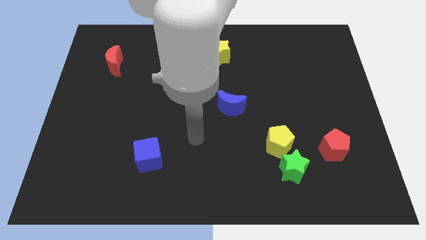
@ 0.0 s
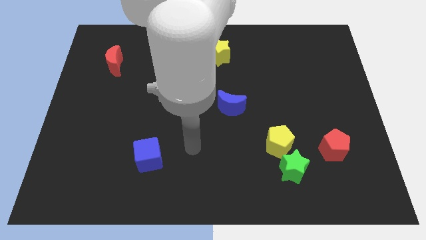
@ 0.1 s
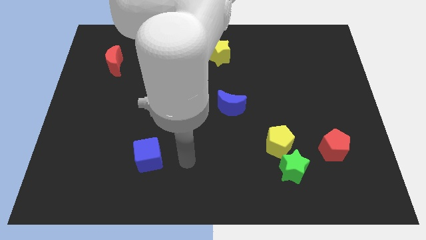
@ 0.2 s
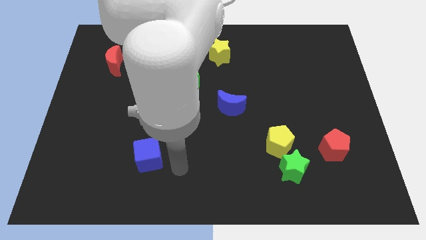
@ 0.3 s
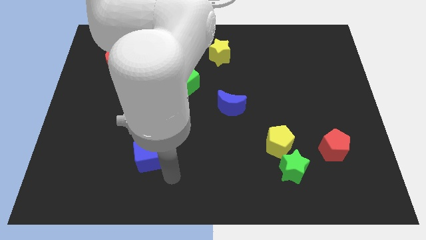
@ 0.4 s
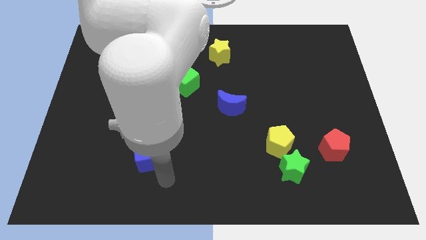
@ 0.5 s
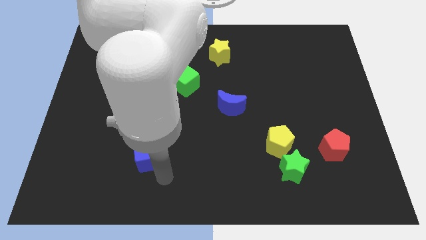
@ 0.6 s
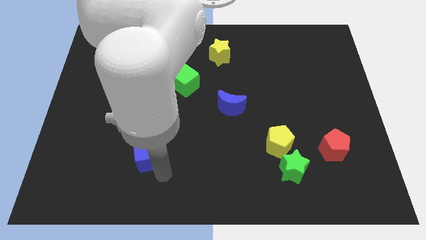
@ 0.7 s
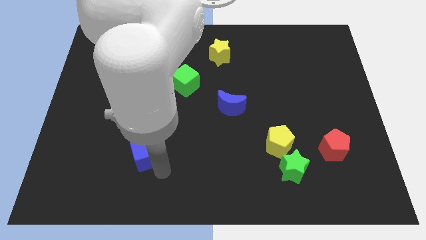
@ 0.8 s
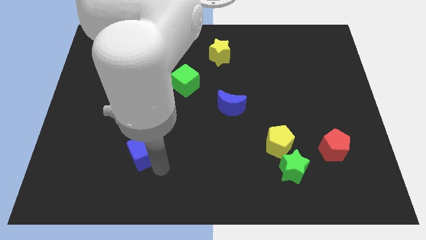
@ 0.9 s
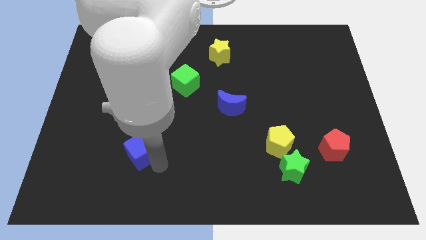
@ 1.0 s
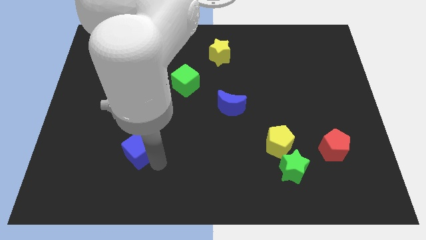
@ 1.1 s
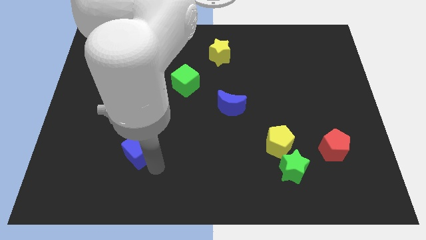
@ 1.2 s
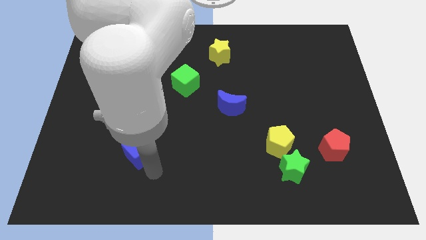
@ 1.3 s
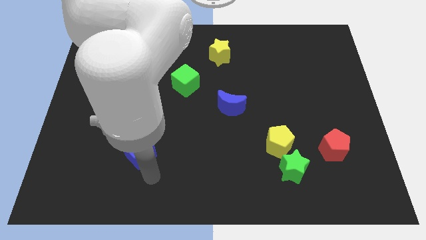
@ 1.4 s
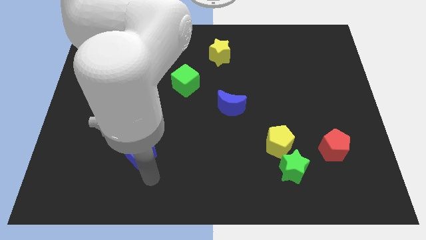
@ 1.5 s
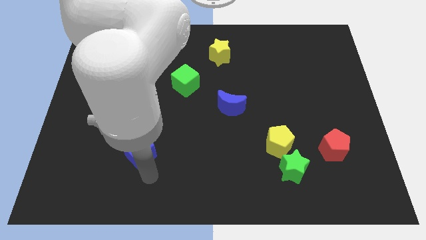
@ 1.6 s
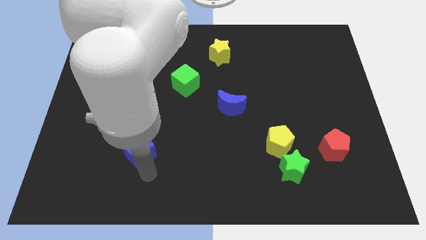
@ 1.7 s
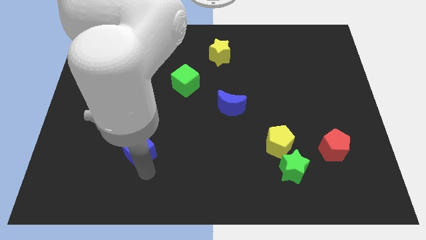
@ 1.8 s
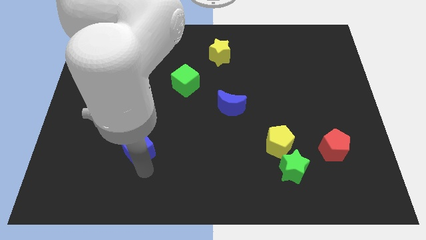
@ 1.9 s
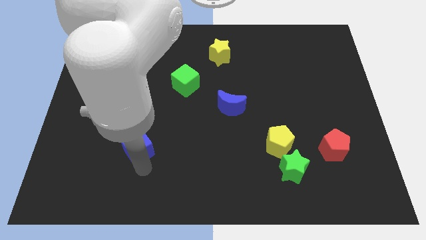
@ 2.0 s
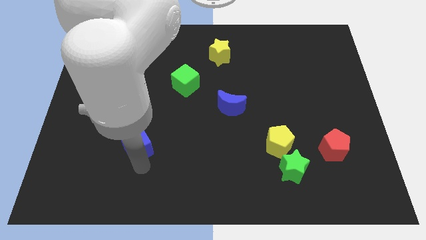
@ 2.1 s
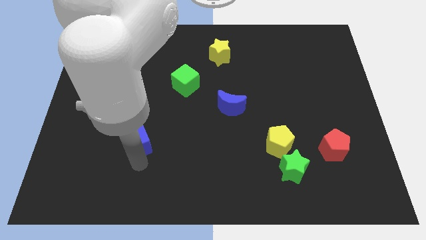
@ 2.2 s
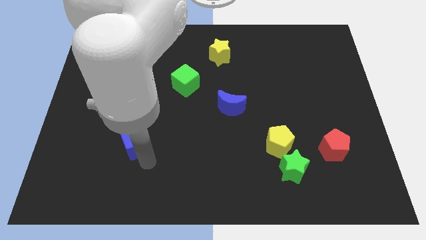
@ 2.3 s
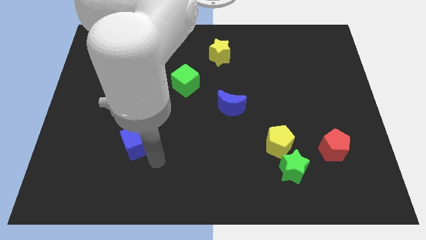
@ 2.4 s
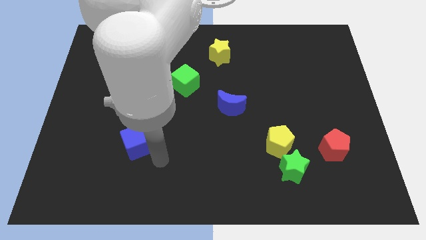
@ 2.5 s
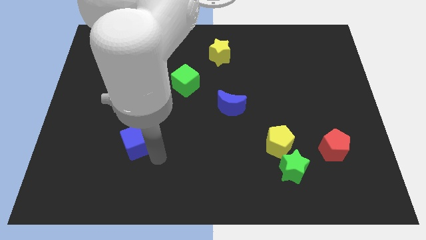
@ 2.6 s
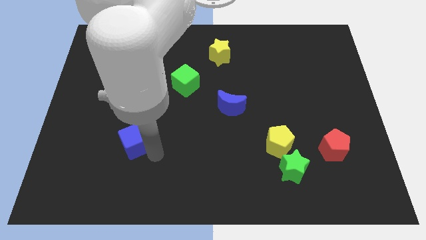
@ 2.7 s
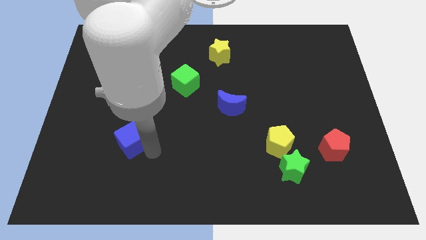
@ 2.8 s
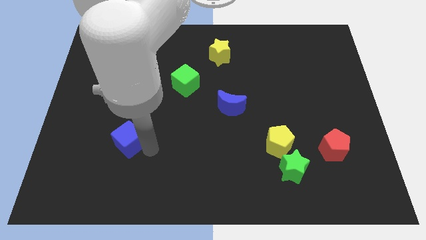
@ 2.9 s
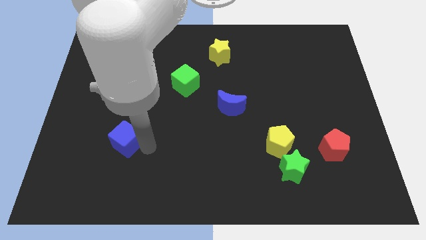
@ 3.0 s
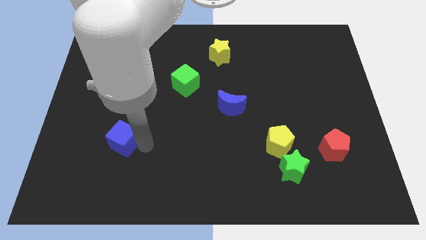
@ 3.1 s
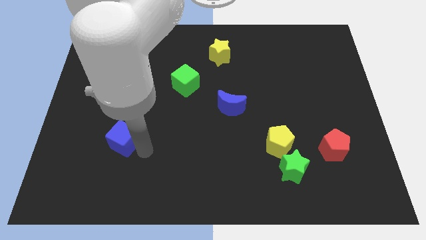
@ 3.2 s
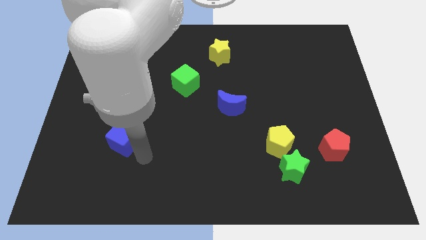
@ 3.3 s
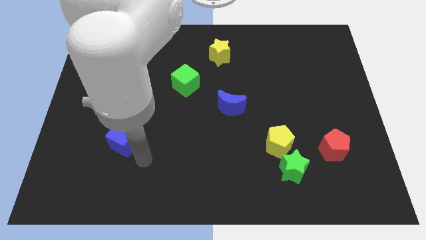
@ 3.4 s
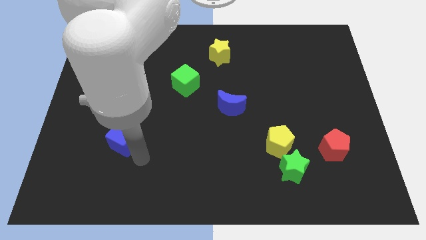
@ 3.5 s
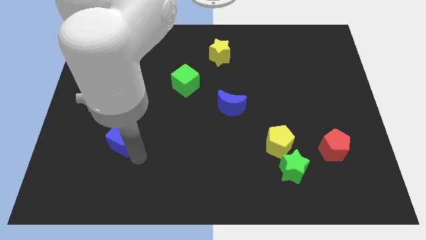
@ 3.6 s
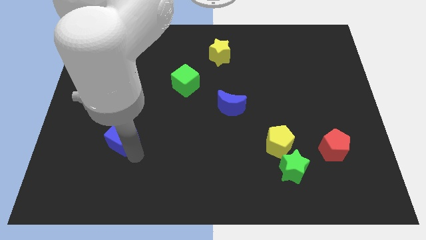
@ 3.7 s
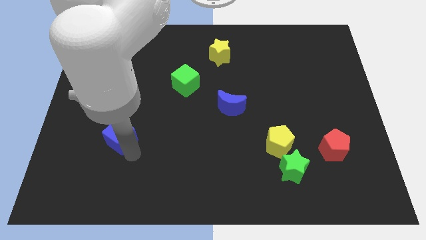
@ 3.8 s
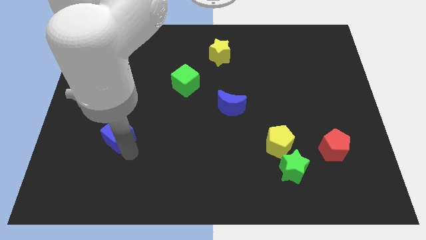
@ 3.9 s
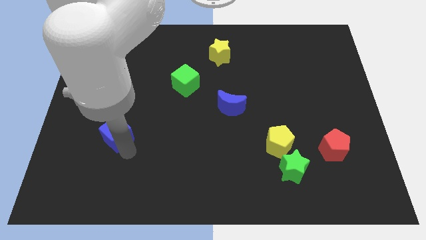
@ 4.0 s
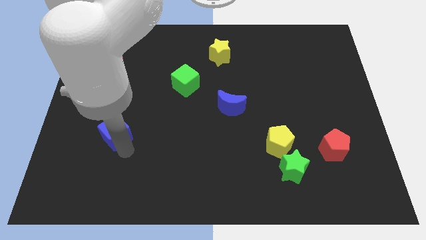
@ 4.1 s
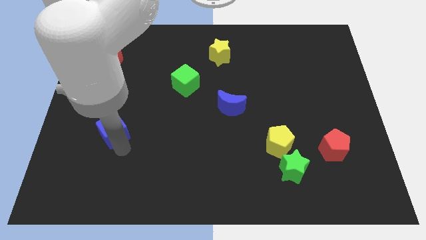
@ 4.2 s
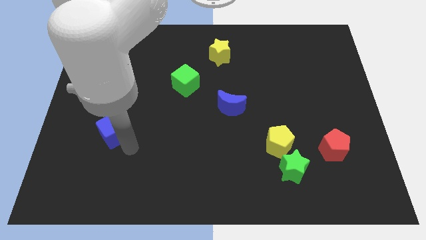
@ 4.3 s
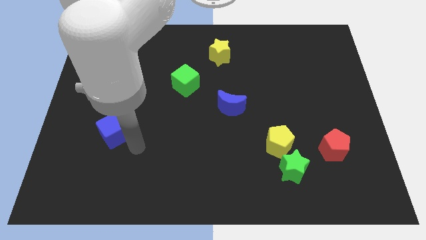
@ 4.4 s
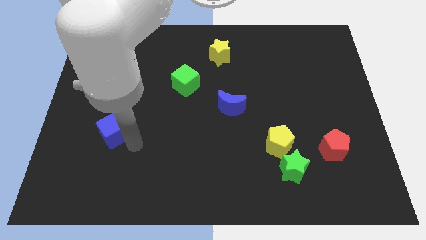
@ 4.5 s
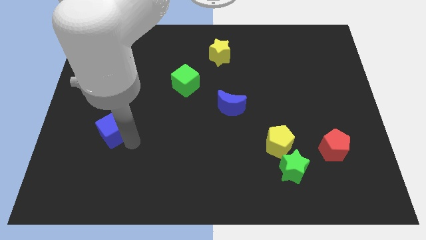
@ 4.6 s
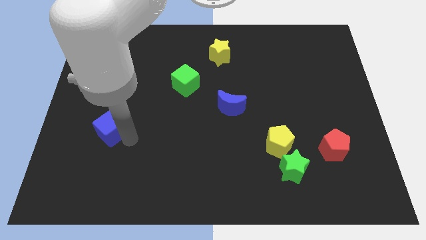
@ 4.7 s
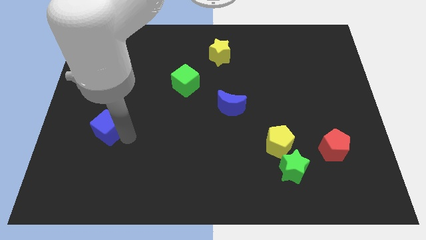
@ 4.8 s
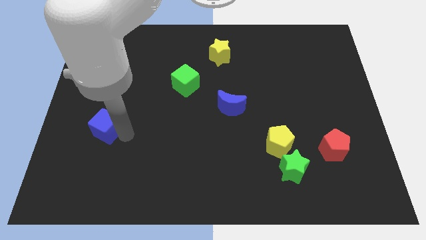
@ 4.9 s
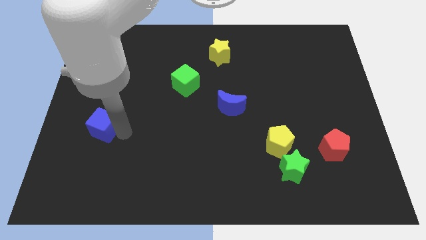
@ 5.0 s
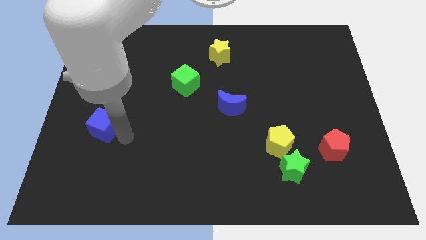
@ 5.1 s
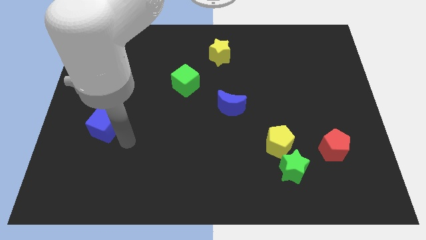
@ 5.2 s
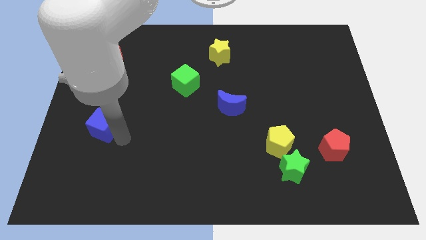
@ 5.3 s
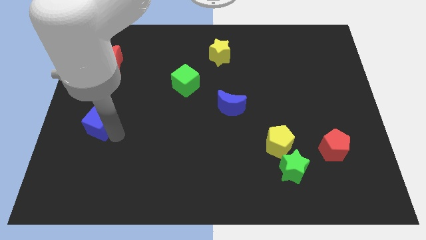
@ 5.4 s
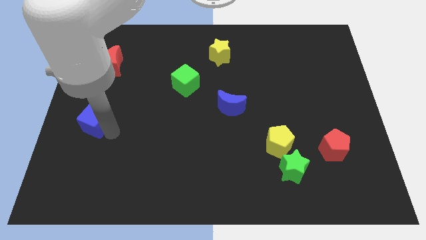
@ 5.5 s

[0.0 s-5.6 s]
push the blue cube to the center left
